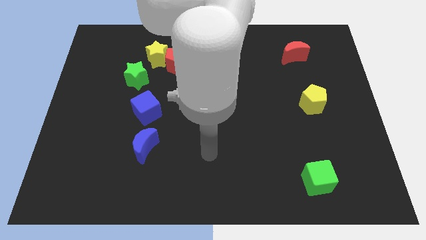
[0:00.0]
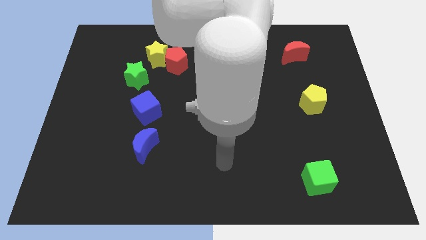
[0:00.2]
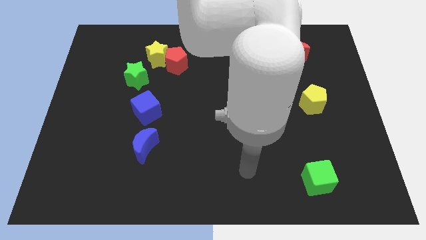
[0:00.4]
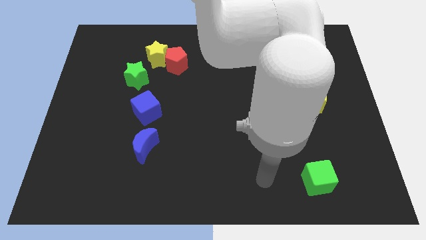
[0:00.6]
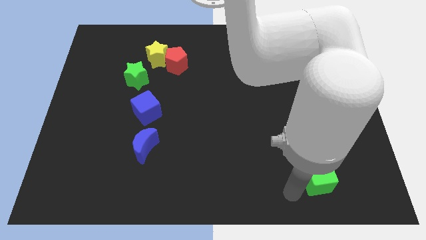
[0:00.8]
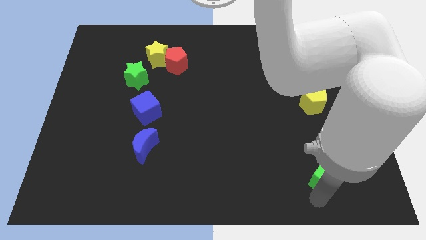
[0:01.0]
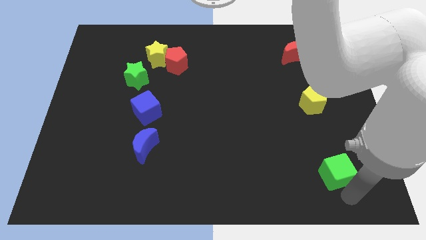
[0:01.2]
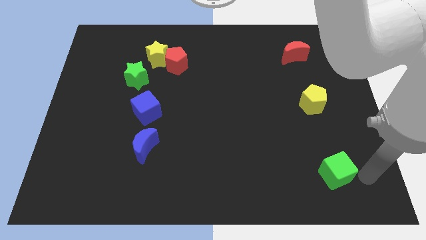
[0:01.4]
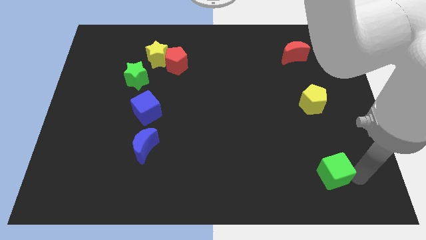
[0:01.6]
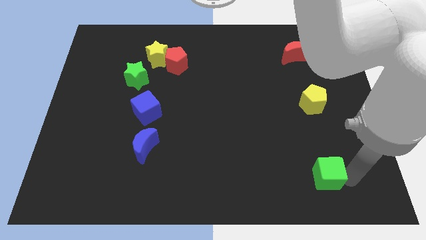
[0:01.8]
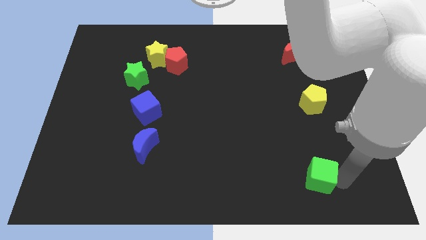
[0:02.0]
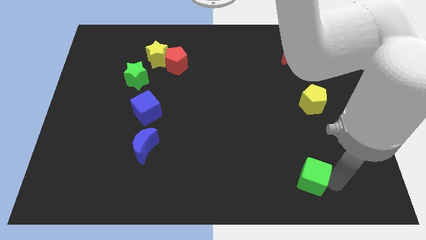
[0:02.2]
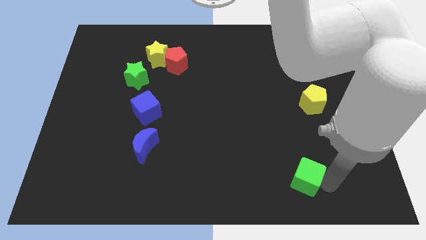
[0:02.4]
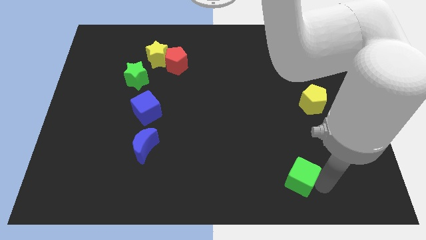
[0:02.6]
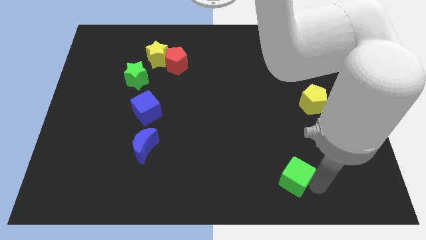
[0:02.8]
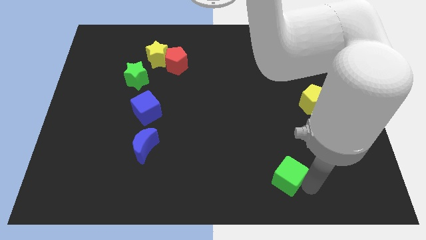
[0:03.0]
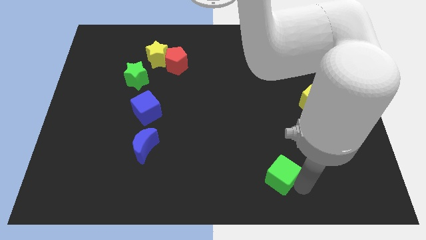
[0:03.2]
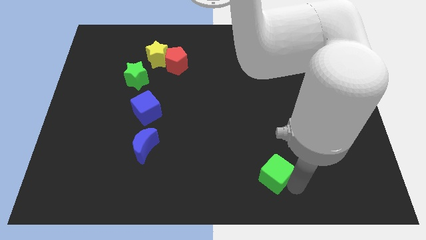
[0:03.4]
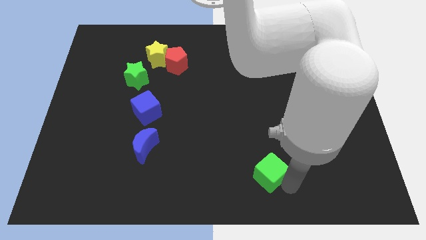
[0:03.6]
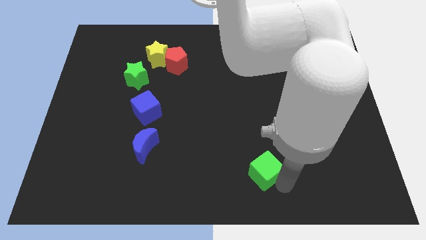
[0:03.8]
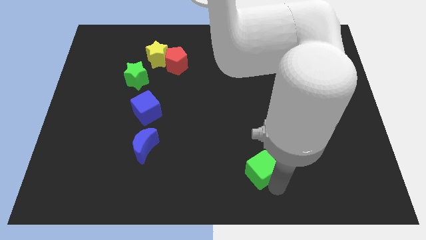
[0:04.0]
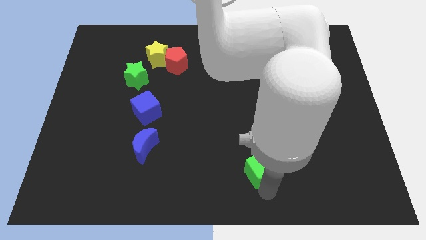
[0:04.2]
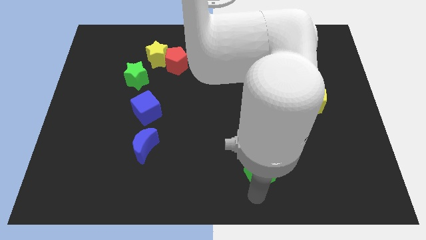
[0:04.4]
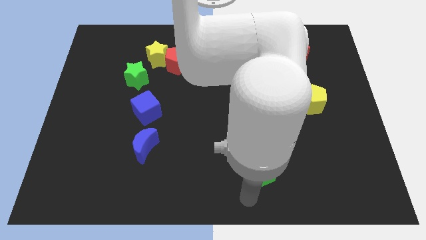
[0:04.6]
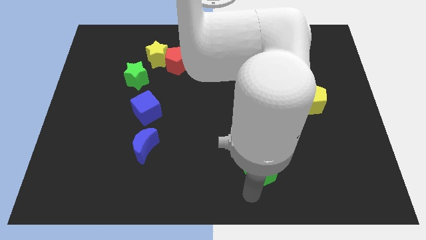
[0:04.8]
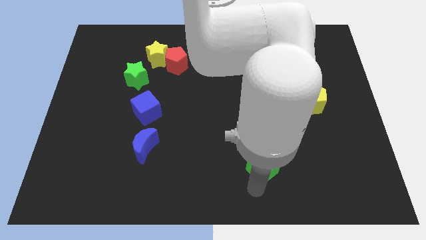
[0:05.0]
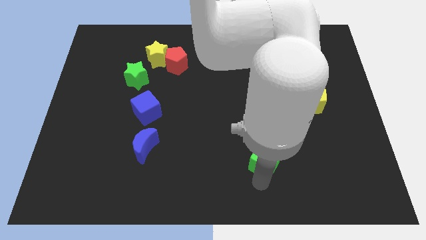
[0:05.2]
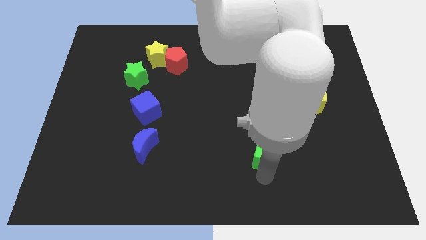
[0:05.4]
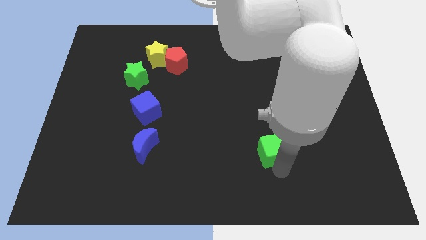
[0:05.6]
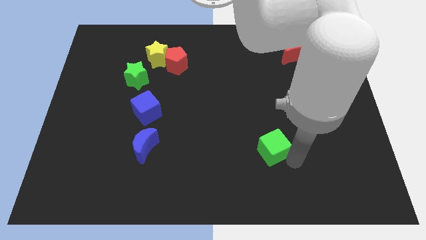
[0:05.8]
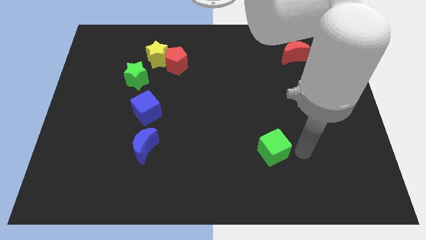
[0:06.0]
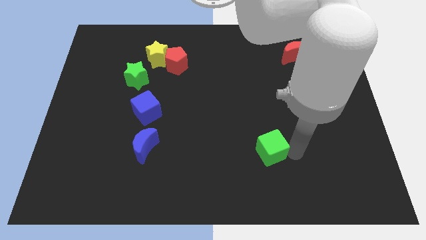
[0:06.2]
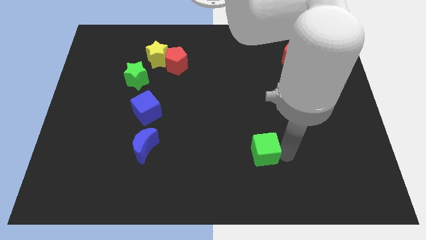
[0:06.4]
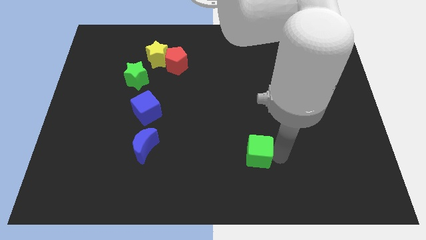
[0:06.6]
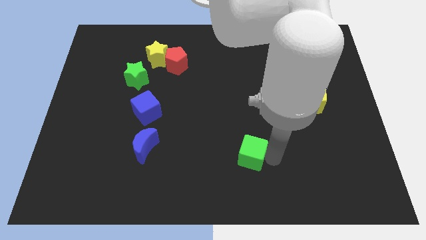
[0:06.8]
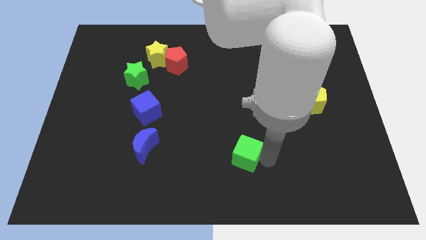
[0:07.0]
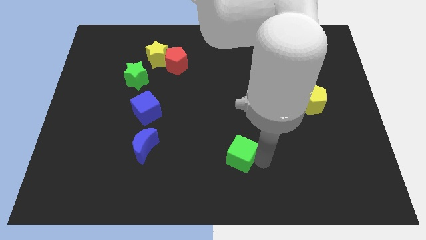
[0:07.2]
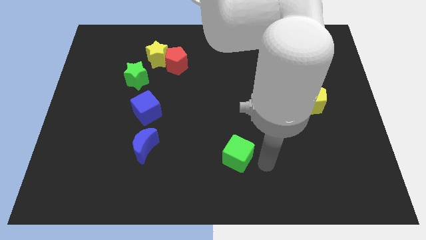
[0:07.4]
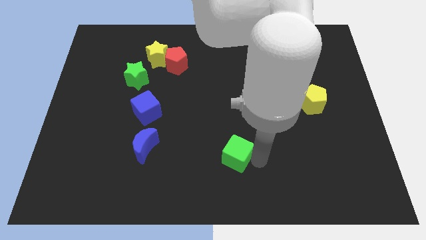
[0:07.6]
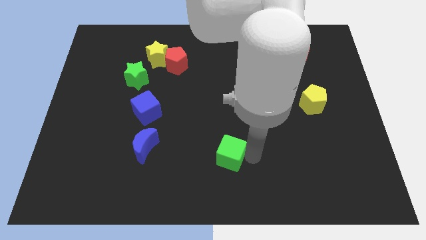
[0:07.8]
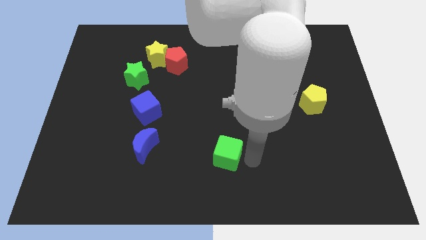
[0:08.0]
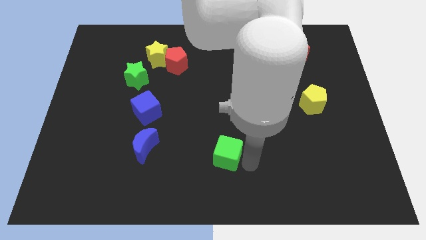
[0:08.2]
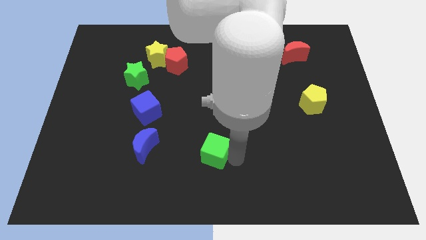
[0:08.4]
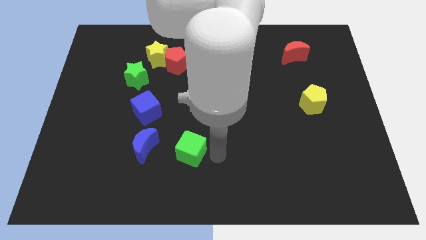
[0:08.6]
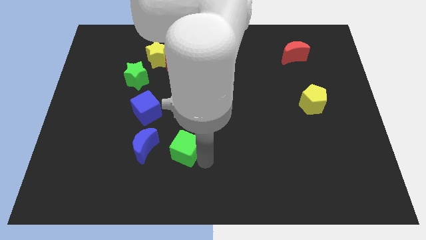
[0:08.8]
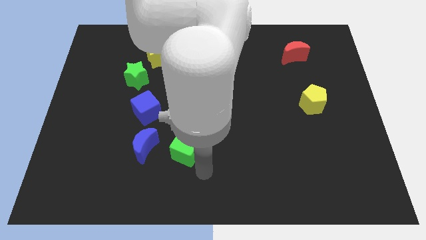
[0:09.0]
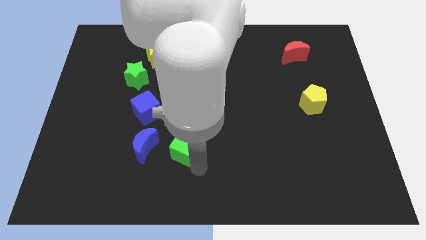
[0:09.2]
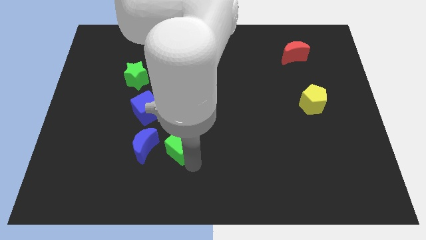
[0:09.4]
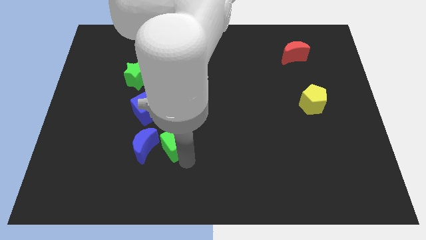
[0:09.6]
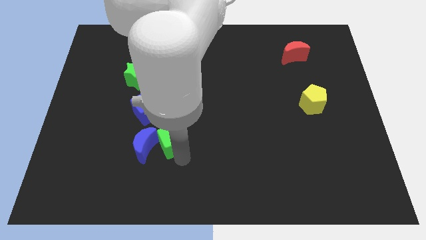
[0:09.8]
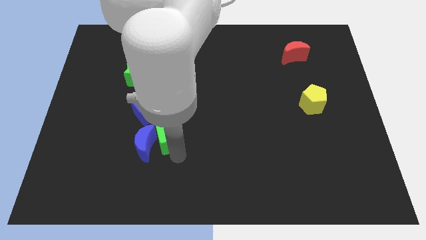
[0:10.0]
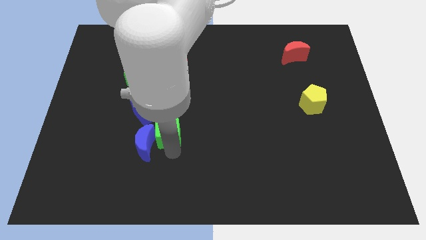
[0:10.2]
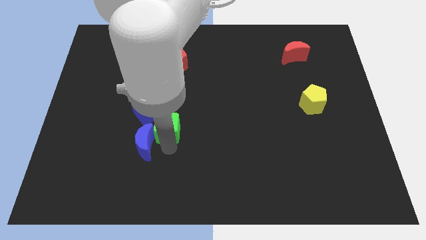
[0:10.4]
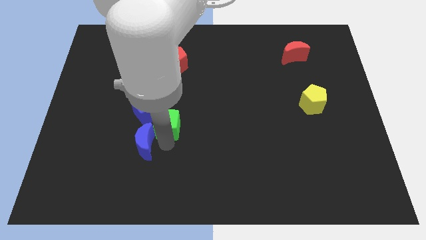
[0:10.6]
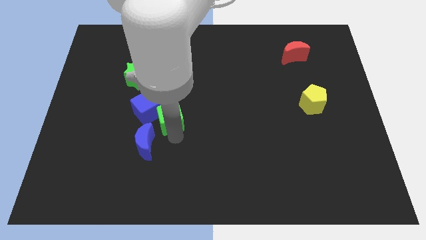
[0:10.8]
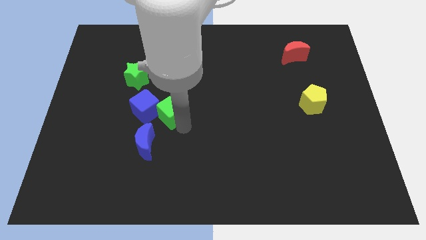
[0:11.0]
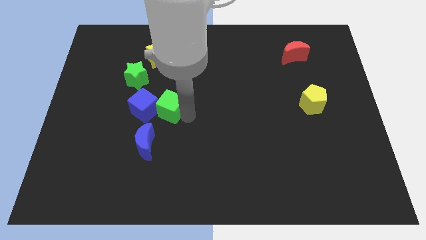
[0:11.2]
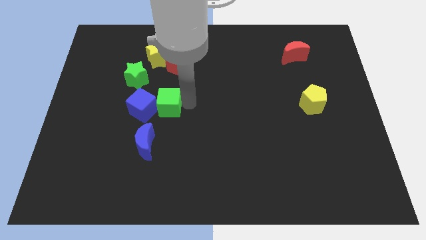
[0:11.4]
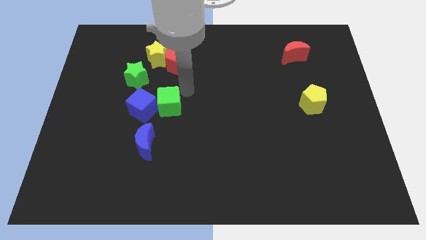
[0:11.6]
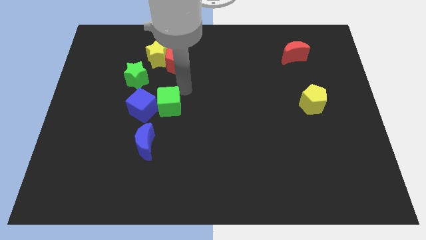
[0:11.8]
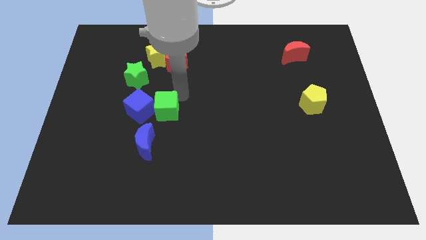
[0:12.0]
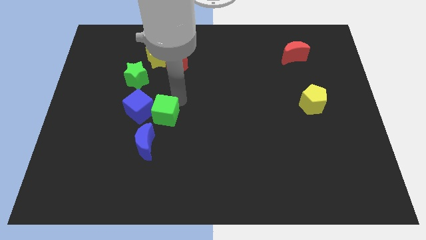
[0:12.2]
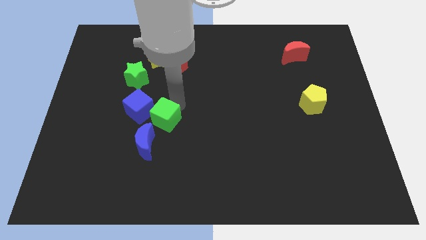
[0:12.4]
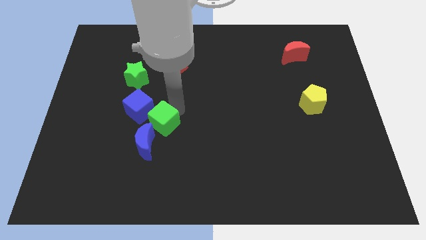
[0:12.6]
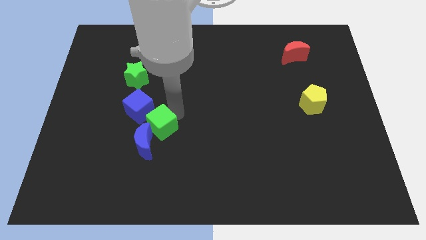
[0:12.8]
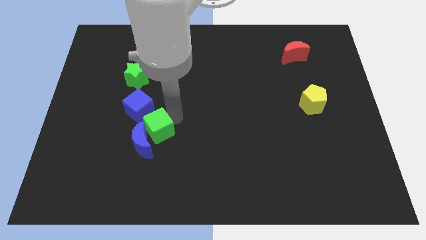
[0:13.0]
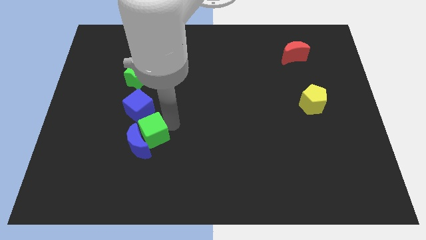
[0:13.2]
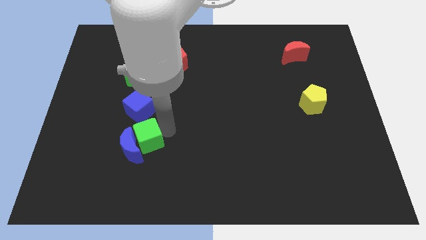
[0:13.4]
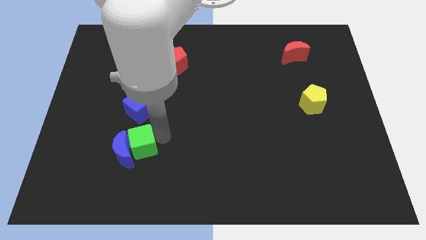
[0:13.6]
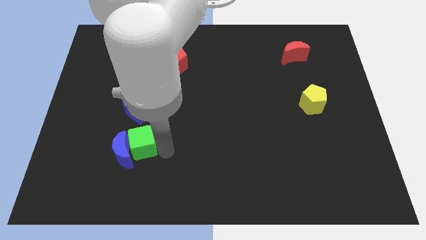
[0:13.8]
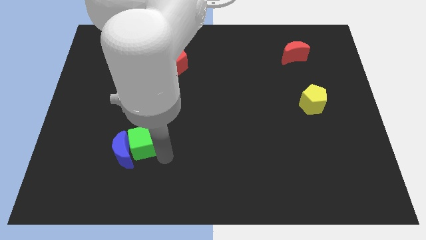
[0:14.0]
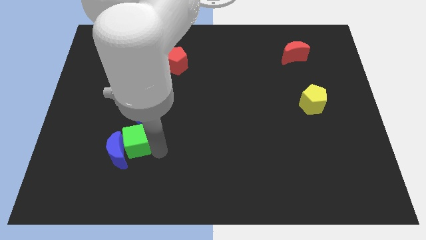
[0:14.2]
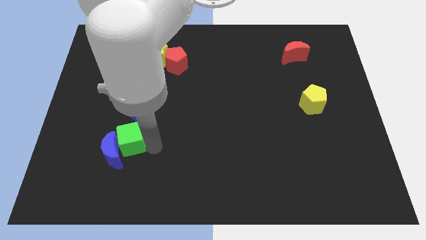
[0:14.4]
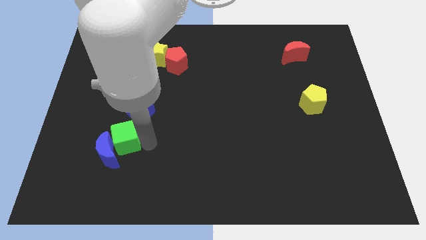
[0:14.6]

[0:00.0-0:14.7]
push the green cube to the bottom left side of the blue cube
